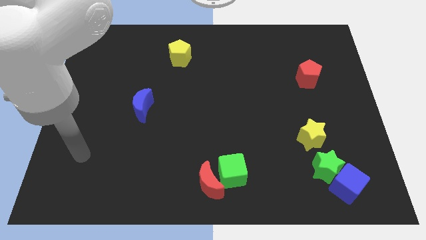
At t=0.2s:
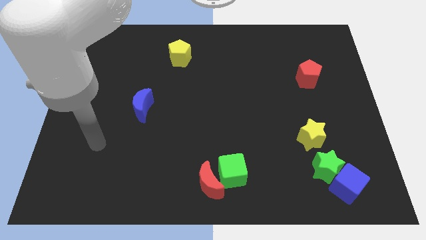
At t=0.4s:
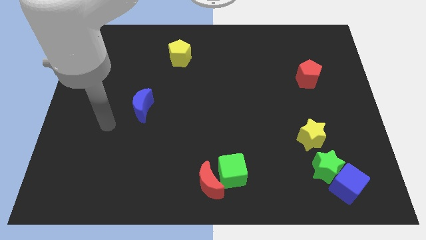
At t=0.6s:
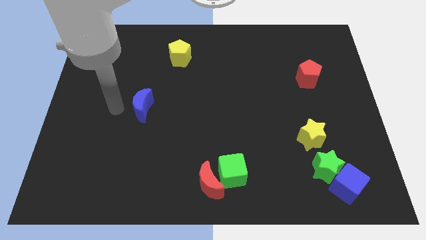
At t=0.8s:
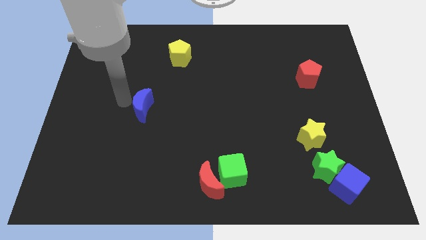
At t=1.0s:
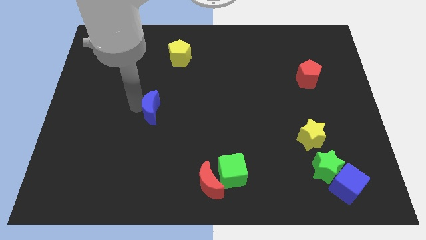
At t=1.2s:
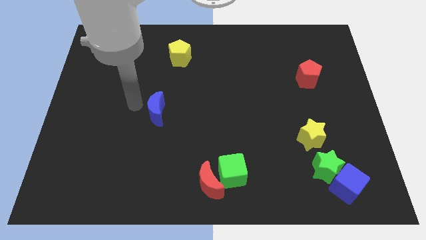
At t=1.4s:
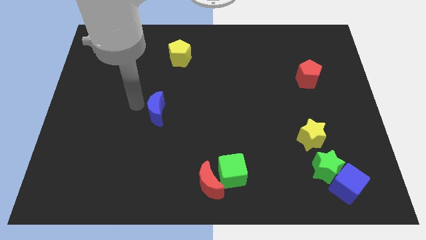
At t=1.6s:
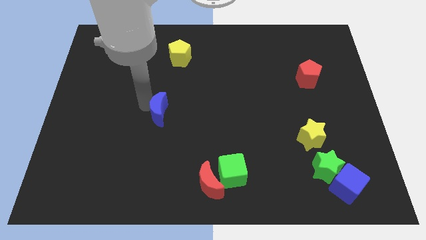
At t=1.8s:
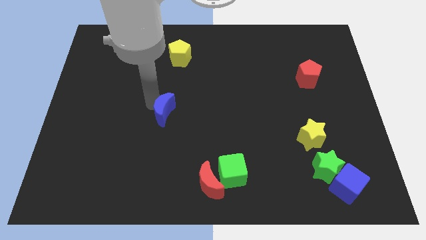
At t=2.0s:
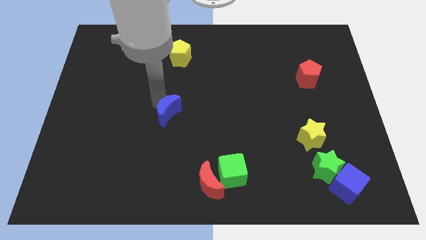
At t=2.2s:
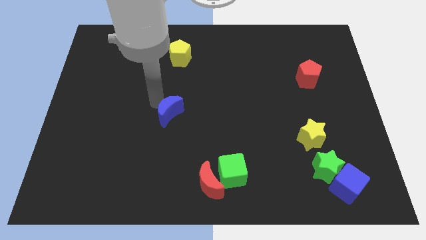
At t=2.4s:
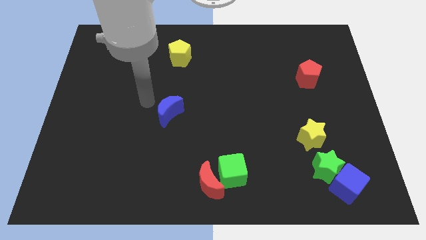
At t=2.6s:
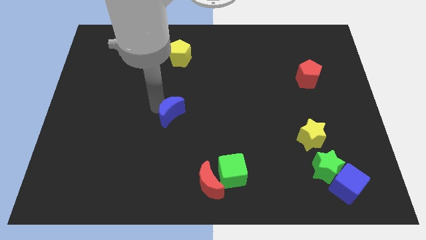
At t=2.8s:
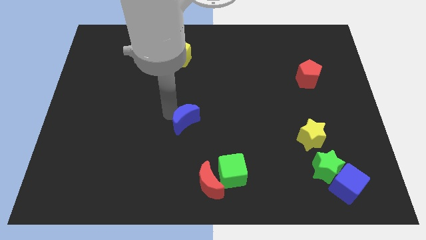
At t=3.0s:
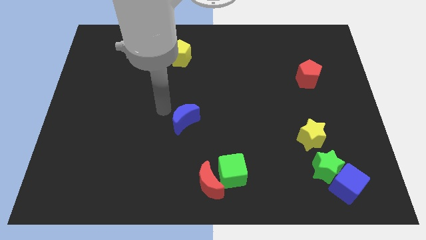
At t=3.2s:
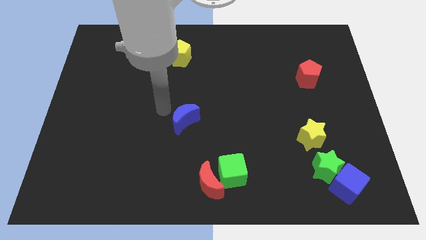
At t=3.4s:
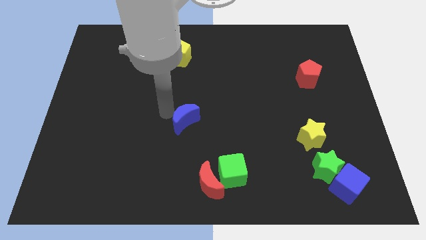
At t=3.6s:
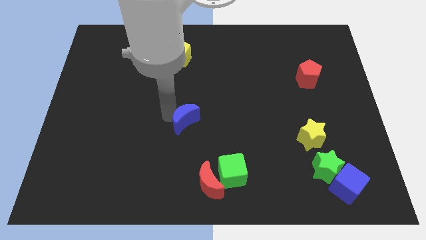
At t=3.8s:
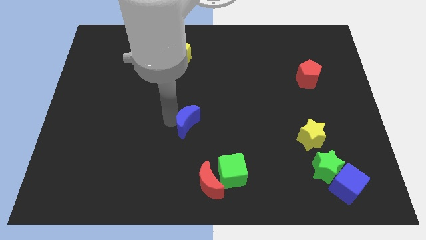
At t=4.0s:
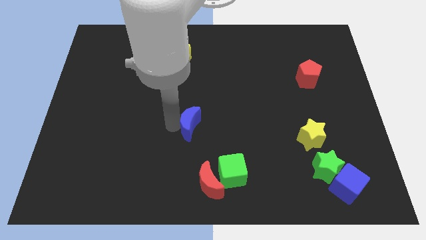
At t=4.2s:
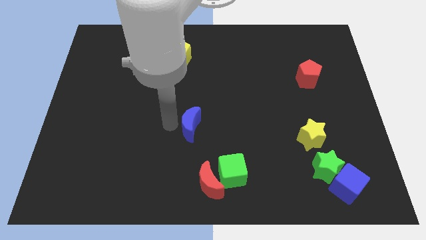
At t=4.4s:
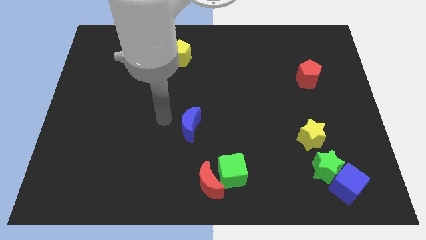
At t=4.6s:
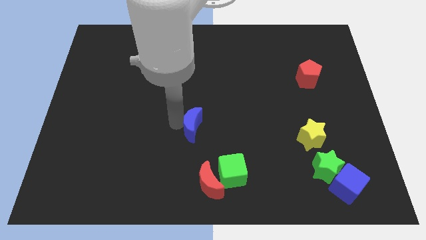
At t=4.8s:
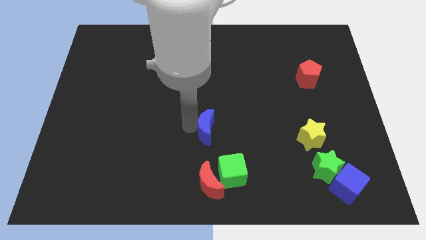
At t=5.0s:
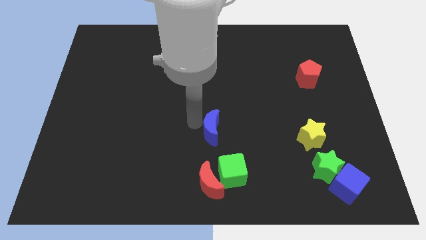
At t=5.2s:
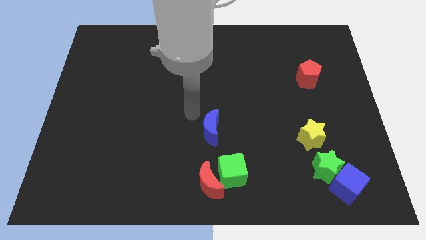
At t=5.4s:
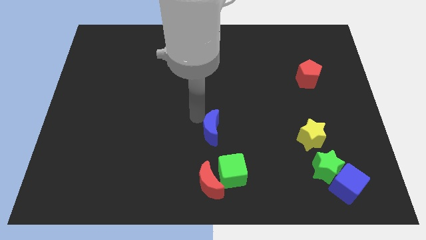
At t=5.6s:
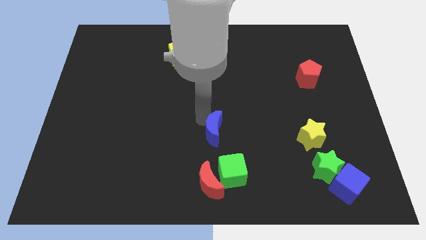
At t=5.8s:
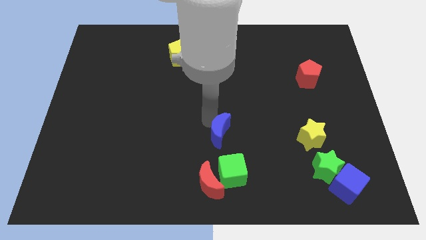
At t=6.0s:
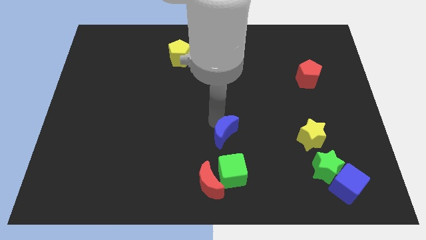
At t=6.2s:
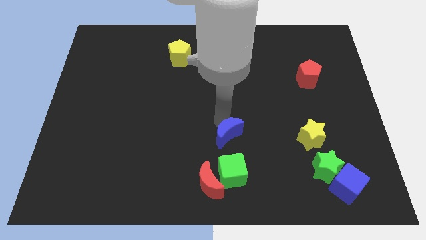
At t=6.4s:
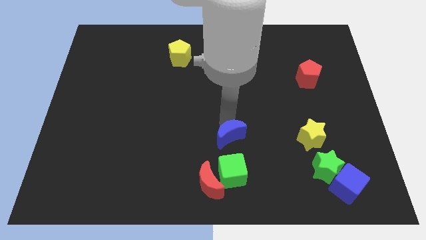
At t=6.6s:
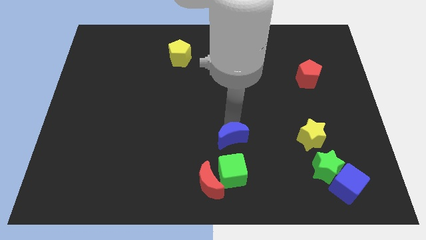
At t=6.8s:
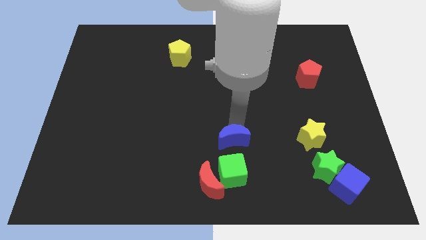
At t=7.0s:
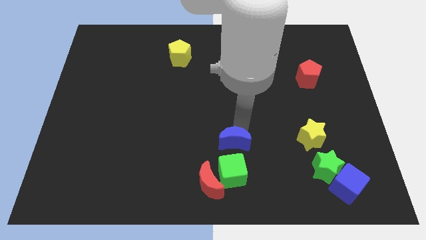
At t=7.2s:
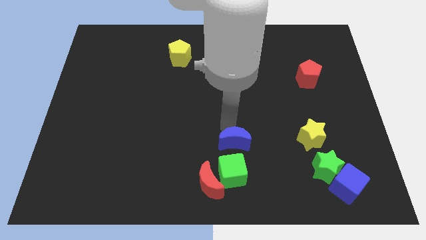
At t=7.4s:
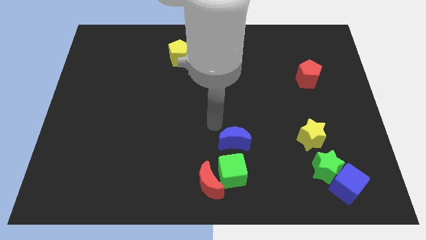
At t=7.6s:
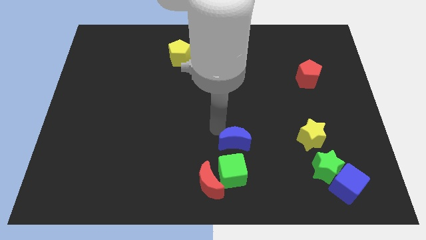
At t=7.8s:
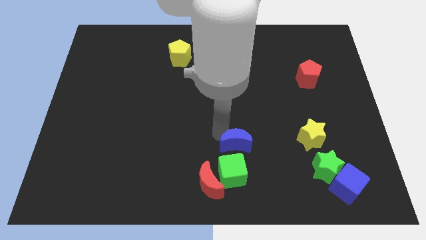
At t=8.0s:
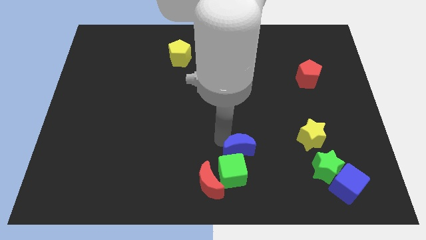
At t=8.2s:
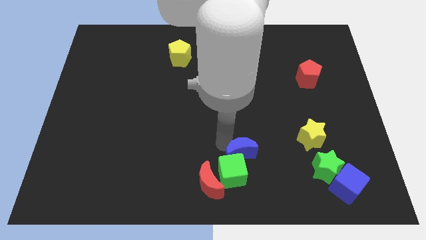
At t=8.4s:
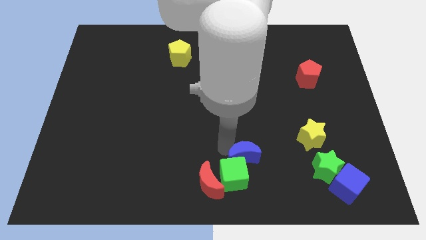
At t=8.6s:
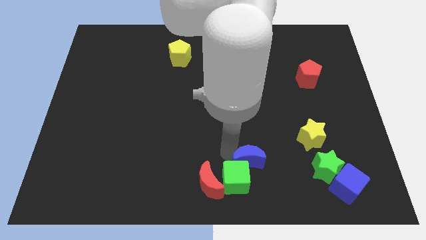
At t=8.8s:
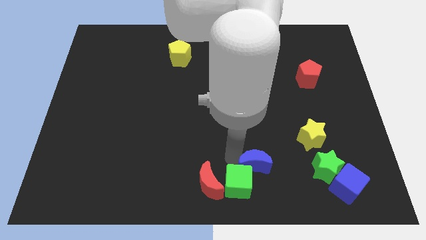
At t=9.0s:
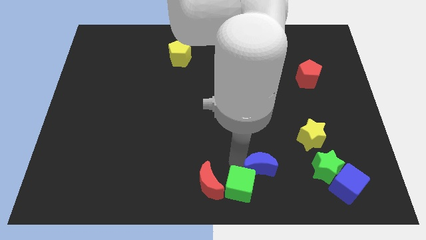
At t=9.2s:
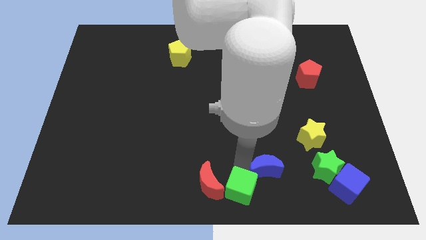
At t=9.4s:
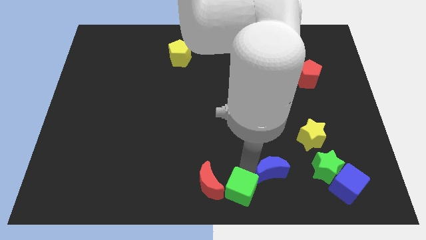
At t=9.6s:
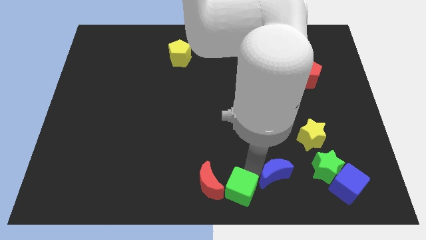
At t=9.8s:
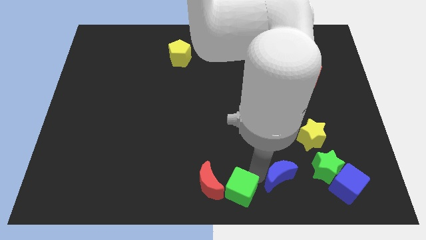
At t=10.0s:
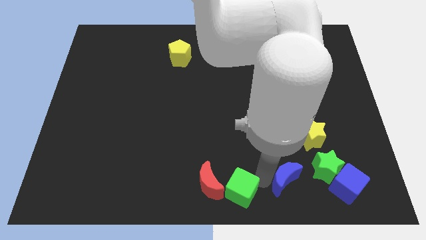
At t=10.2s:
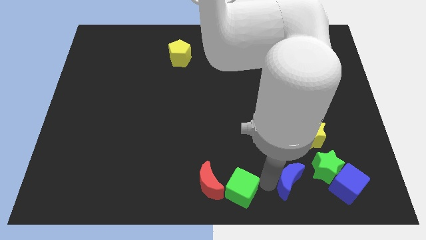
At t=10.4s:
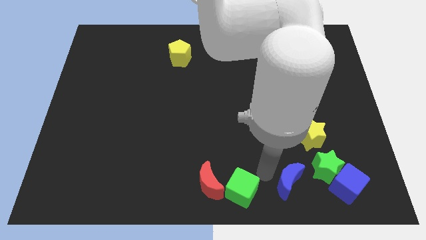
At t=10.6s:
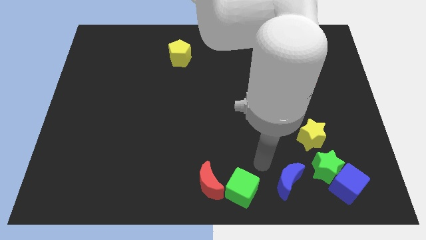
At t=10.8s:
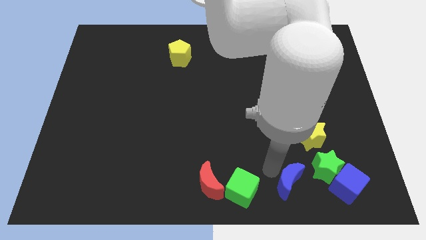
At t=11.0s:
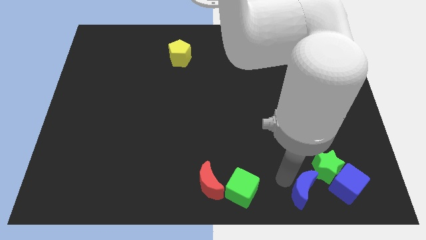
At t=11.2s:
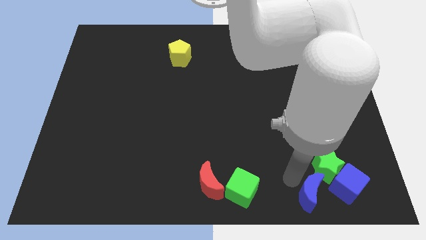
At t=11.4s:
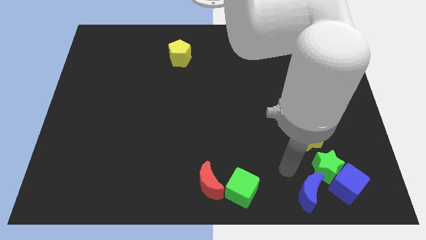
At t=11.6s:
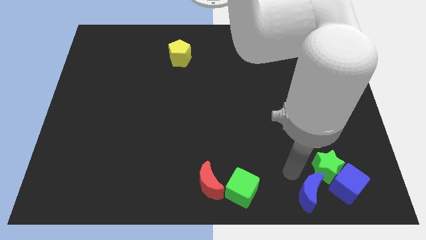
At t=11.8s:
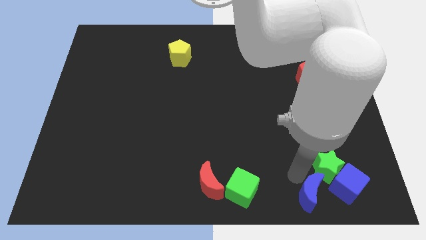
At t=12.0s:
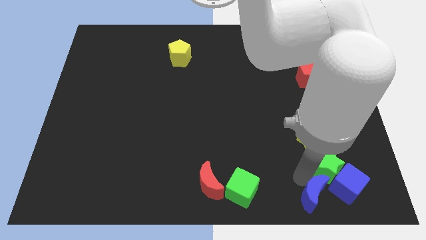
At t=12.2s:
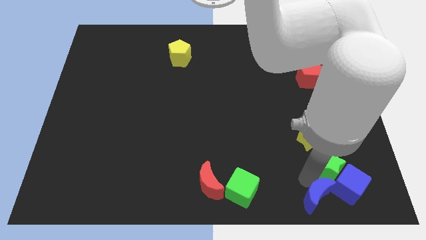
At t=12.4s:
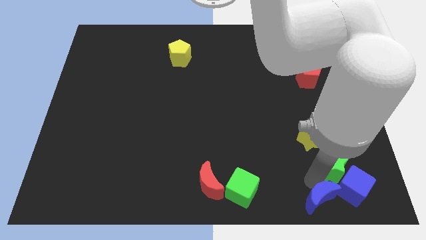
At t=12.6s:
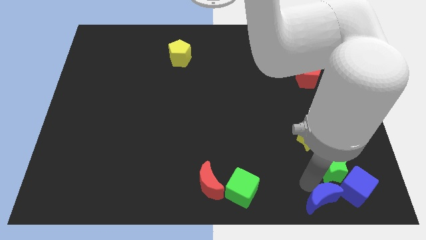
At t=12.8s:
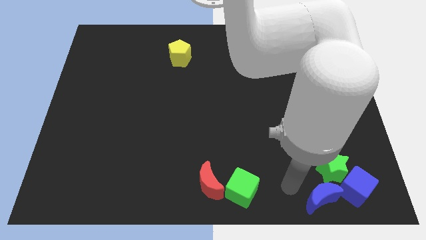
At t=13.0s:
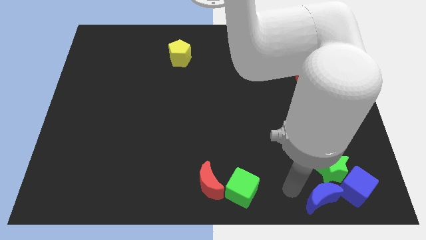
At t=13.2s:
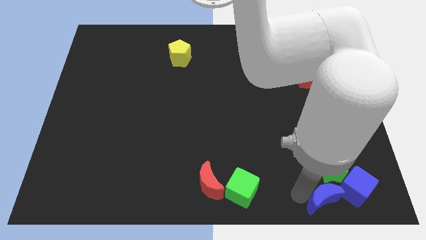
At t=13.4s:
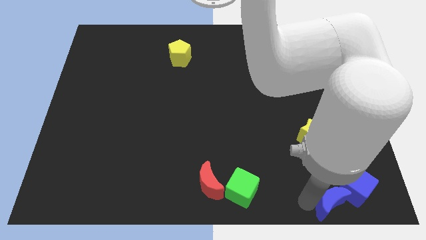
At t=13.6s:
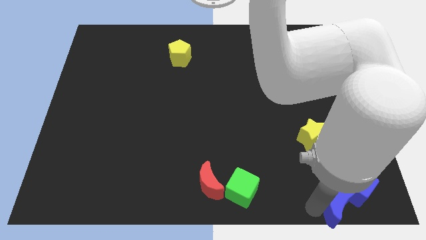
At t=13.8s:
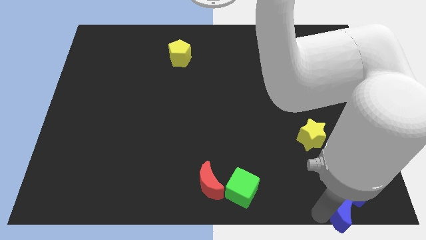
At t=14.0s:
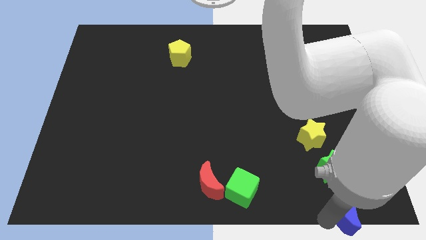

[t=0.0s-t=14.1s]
move the blue moon to the bottom right of the board
